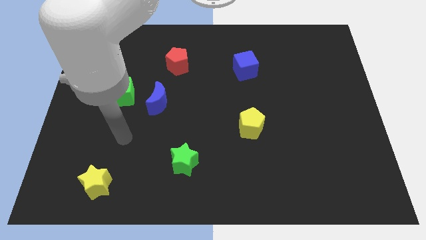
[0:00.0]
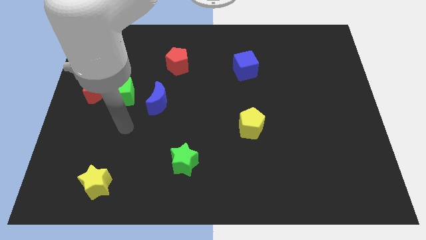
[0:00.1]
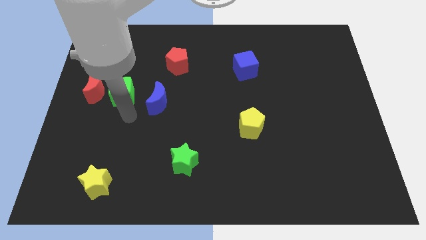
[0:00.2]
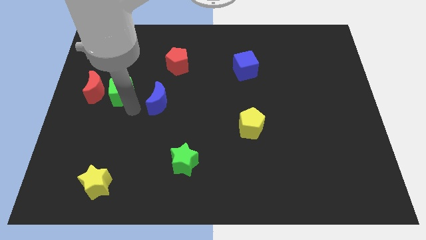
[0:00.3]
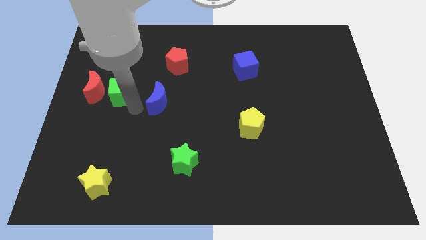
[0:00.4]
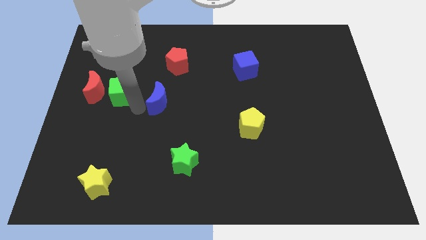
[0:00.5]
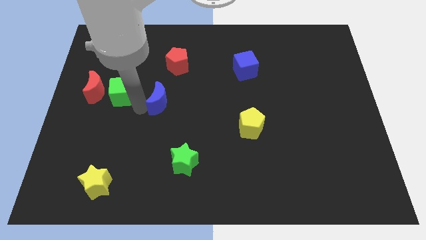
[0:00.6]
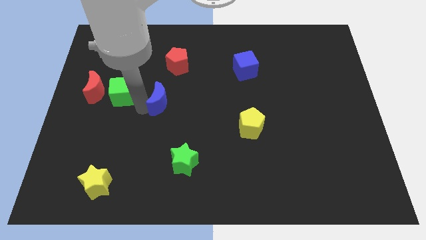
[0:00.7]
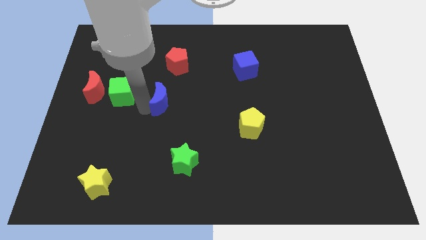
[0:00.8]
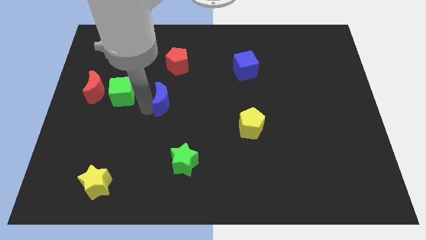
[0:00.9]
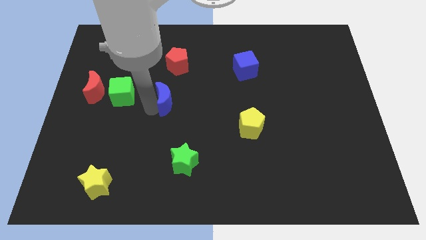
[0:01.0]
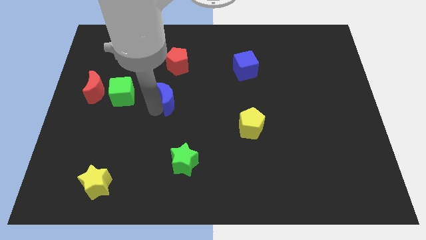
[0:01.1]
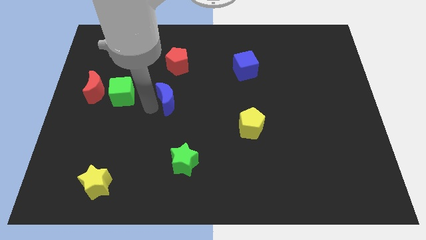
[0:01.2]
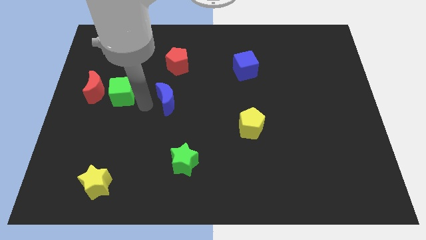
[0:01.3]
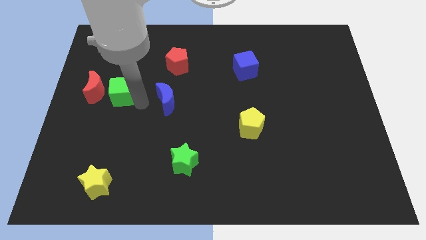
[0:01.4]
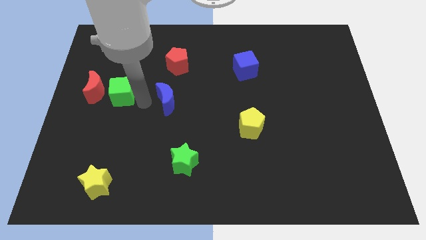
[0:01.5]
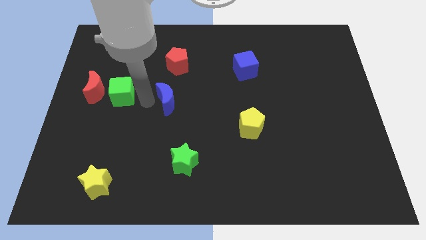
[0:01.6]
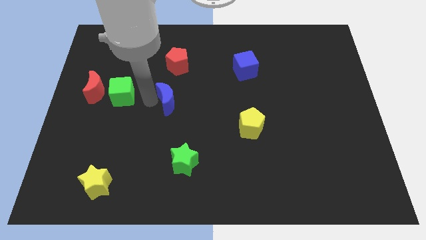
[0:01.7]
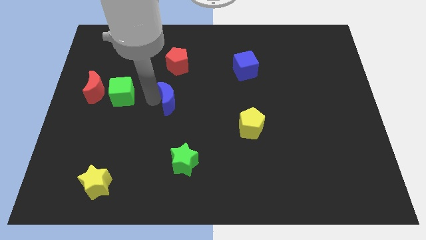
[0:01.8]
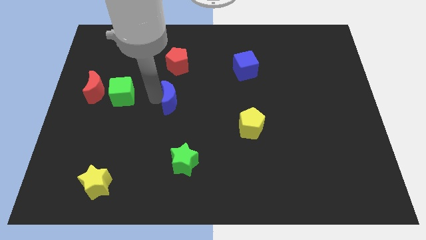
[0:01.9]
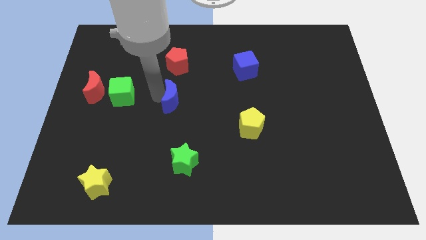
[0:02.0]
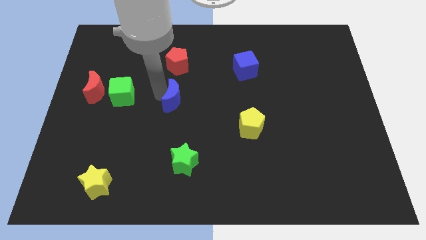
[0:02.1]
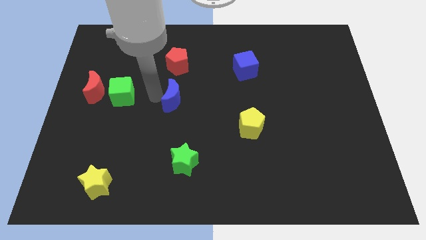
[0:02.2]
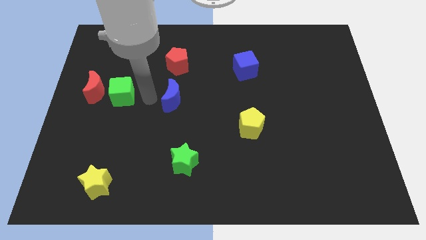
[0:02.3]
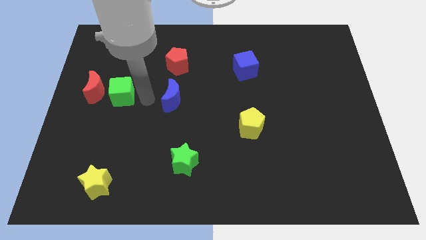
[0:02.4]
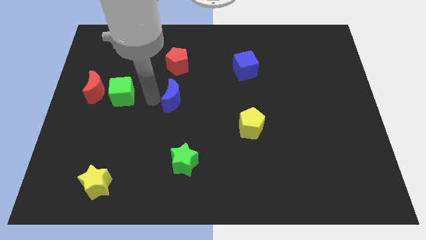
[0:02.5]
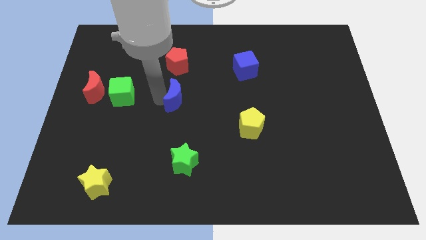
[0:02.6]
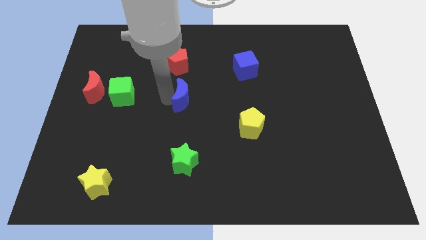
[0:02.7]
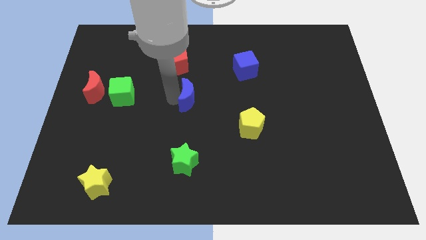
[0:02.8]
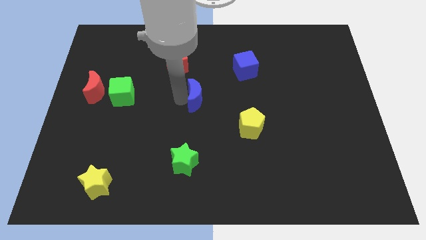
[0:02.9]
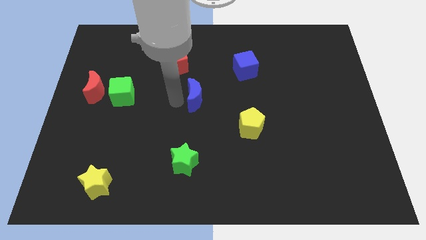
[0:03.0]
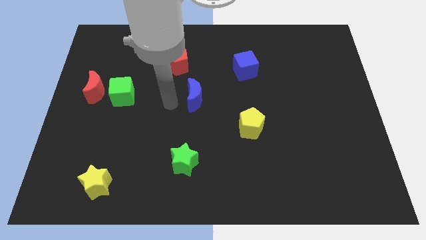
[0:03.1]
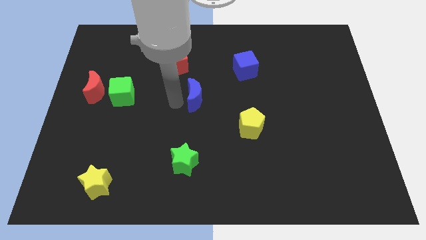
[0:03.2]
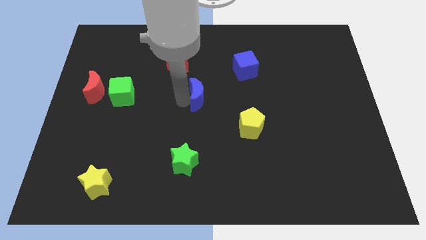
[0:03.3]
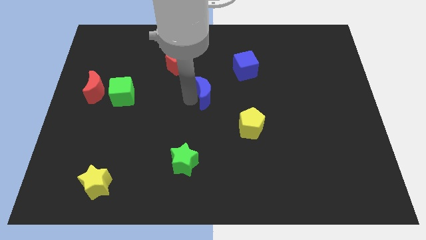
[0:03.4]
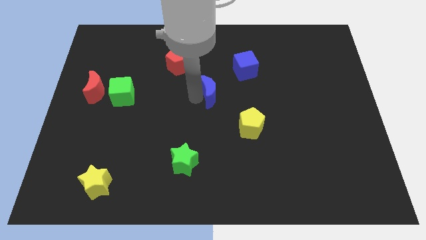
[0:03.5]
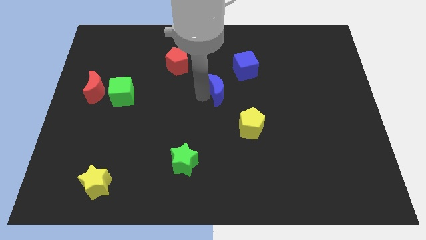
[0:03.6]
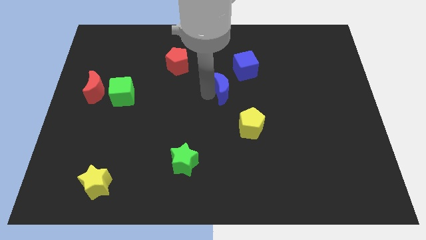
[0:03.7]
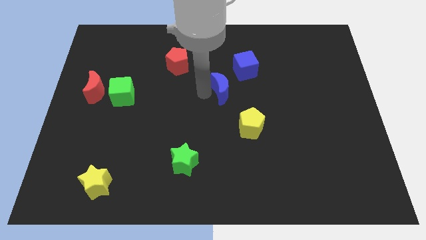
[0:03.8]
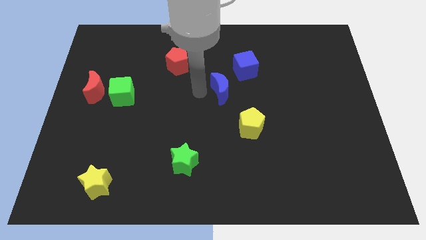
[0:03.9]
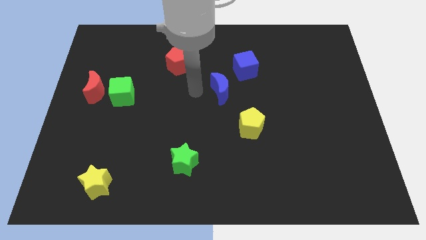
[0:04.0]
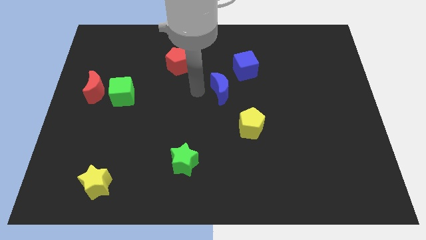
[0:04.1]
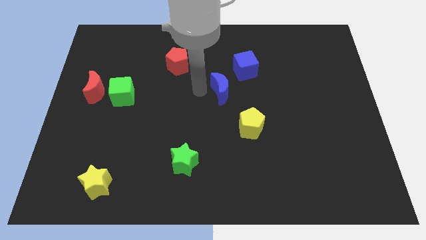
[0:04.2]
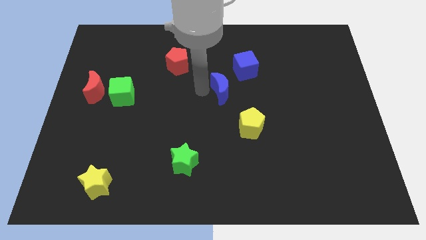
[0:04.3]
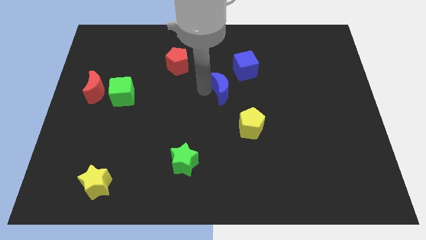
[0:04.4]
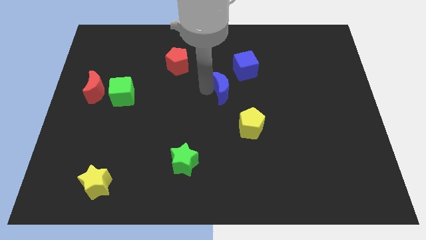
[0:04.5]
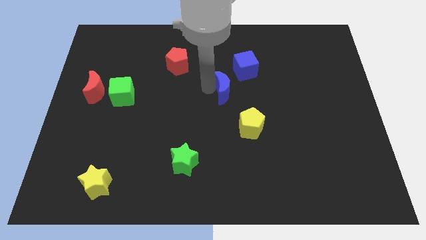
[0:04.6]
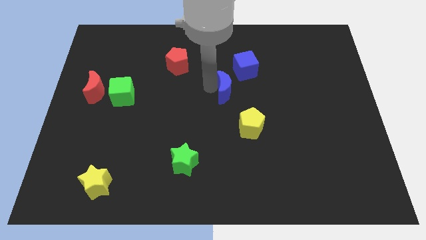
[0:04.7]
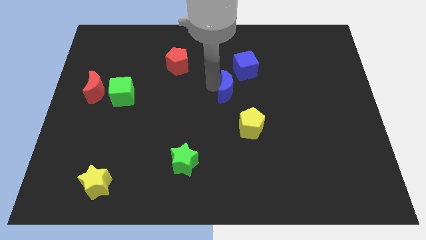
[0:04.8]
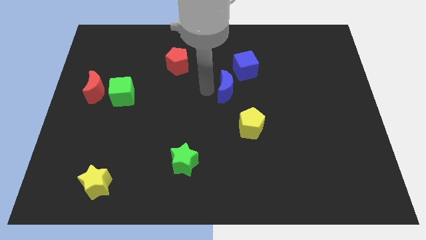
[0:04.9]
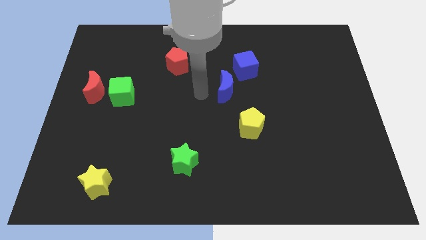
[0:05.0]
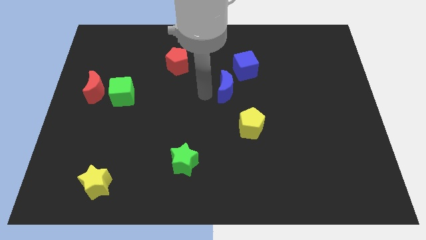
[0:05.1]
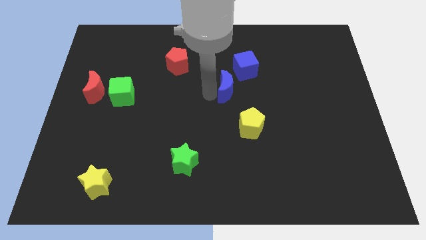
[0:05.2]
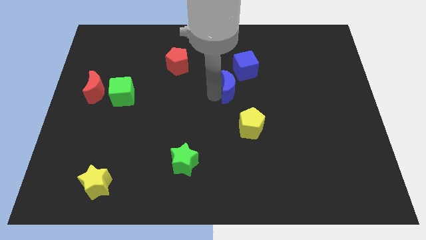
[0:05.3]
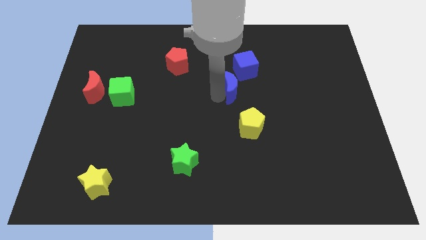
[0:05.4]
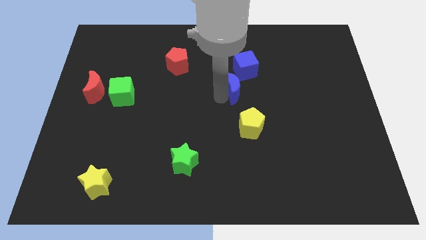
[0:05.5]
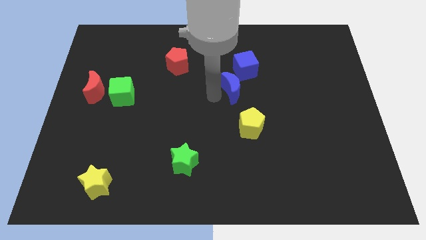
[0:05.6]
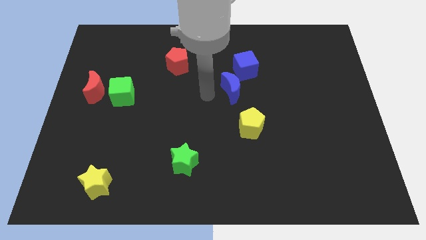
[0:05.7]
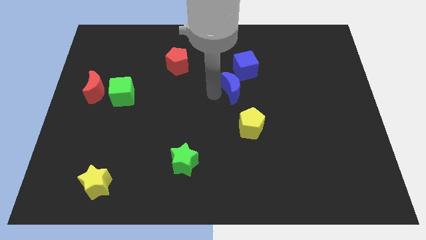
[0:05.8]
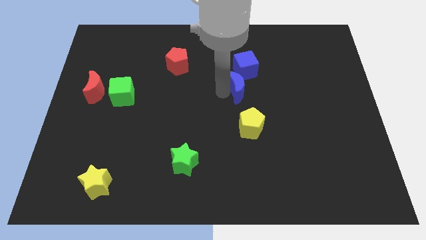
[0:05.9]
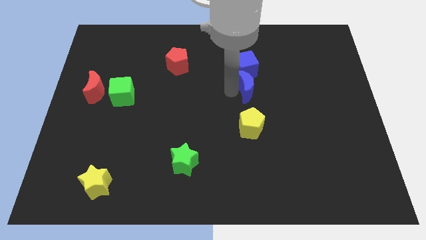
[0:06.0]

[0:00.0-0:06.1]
put the blue moon to the bottom right of the blue cube

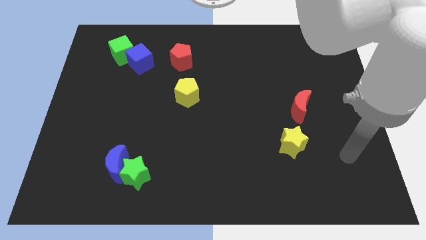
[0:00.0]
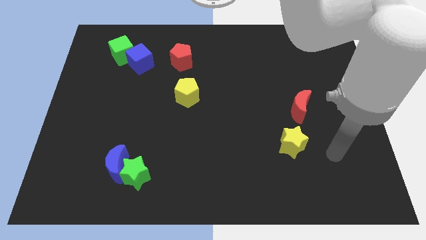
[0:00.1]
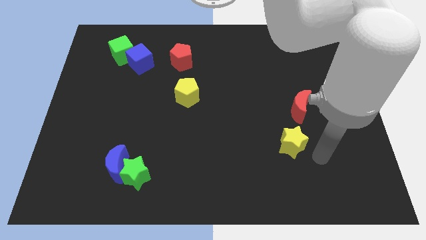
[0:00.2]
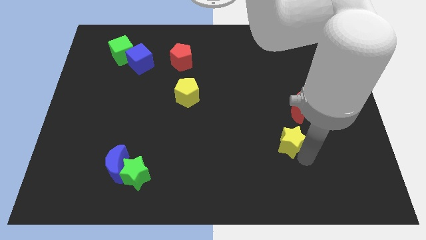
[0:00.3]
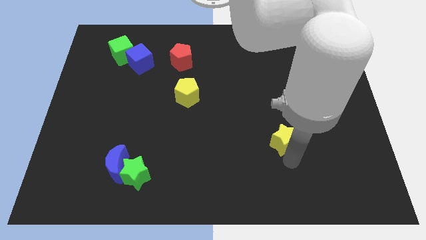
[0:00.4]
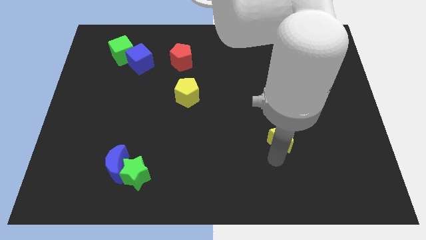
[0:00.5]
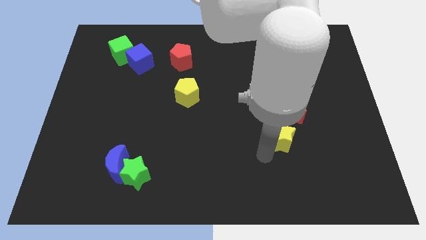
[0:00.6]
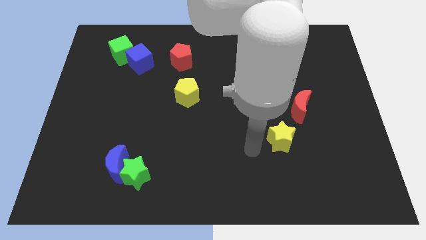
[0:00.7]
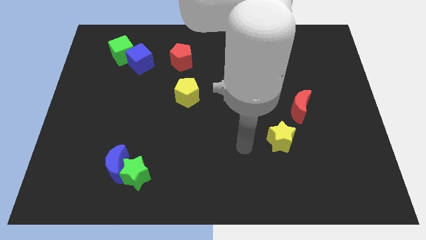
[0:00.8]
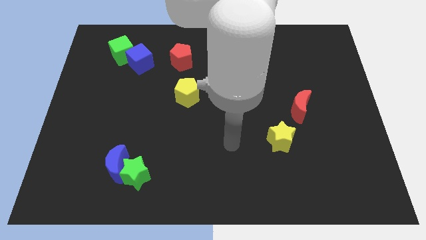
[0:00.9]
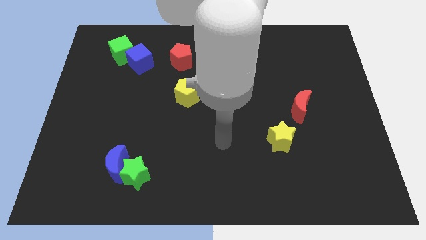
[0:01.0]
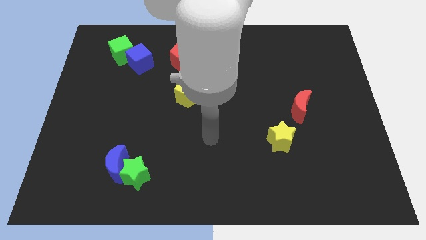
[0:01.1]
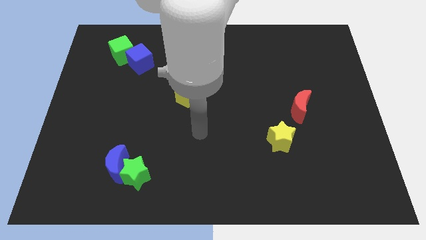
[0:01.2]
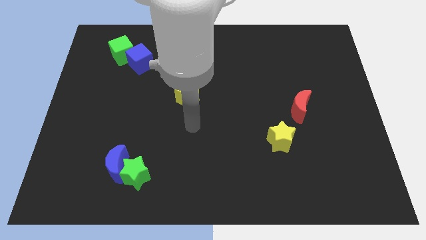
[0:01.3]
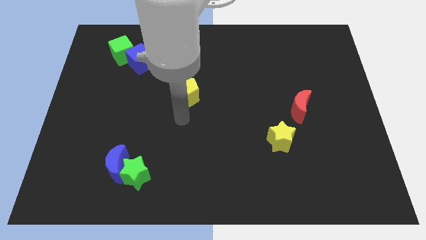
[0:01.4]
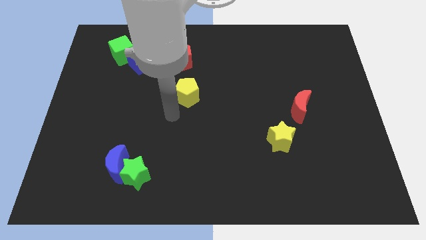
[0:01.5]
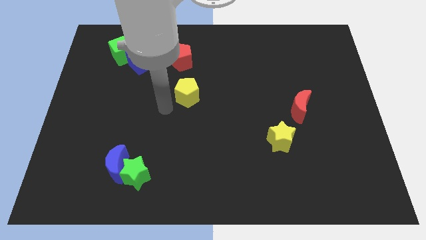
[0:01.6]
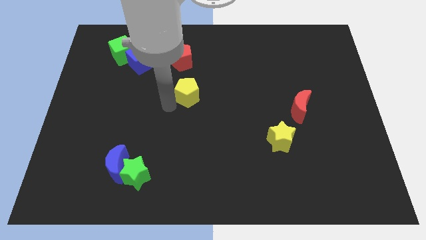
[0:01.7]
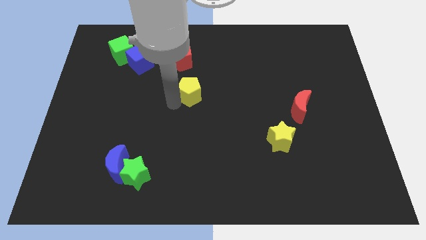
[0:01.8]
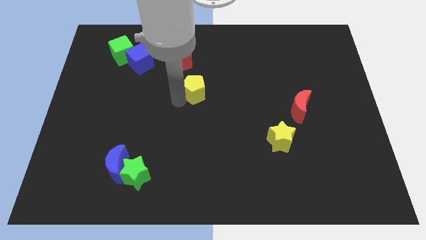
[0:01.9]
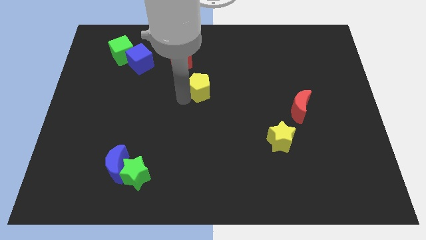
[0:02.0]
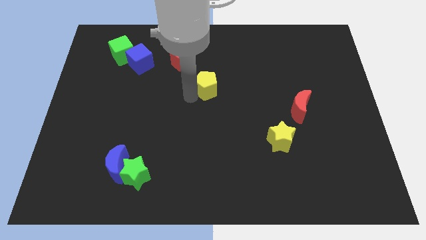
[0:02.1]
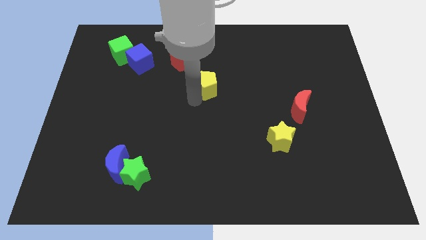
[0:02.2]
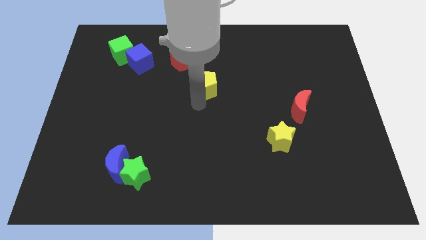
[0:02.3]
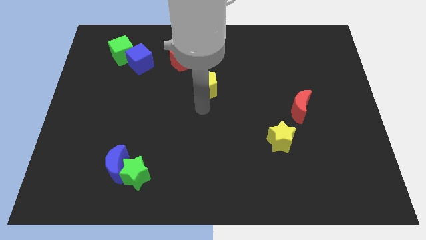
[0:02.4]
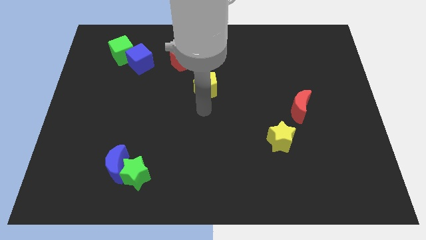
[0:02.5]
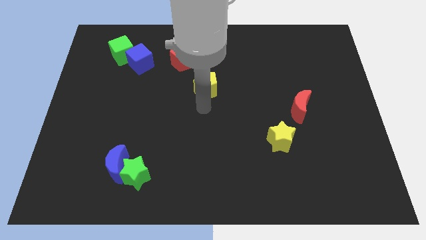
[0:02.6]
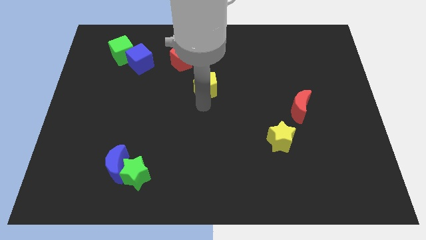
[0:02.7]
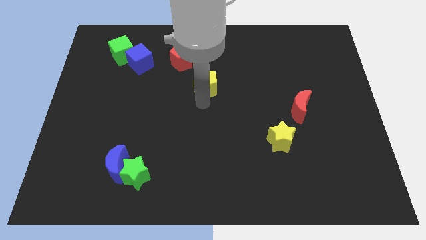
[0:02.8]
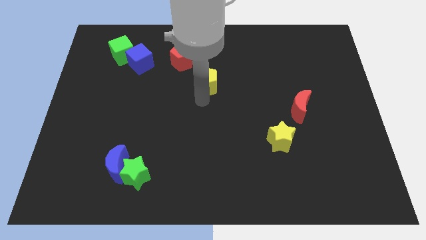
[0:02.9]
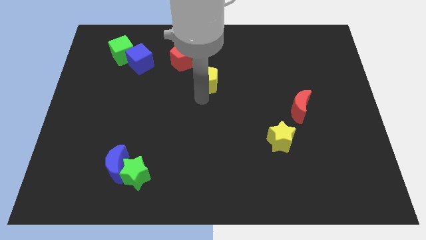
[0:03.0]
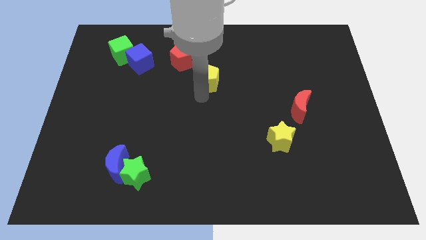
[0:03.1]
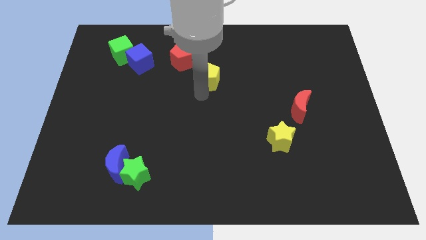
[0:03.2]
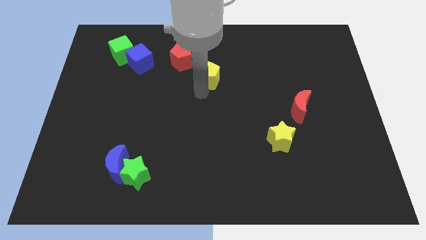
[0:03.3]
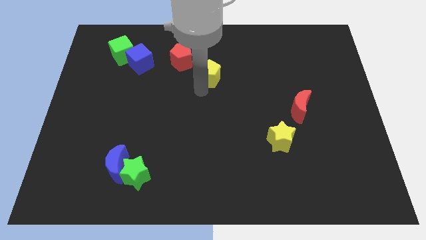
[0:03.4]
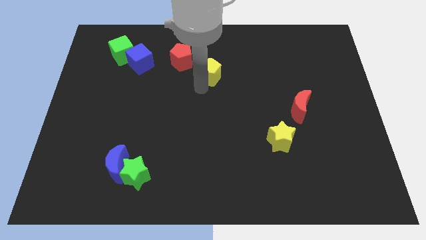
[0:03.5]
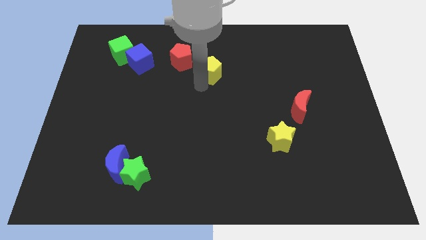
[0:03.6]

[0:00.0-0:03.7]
push the yellow pentagon just right of the red pentagon
